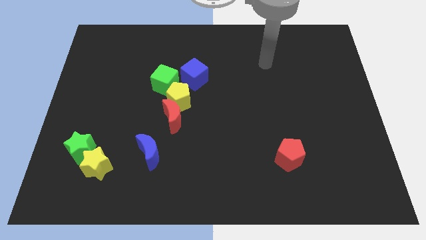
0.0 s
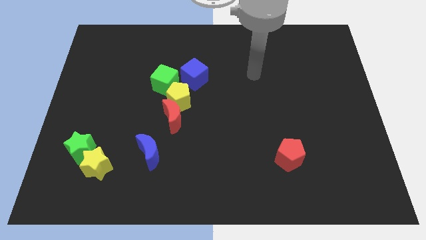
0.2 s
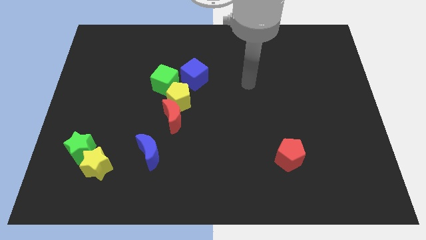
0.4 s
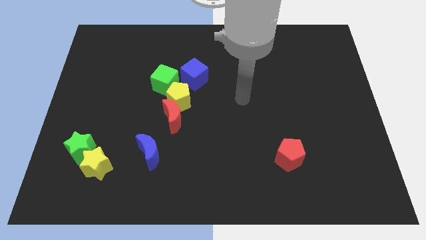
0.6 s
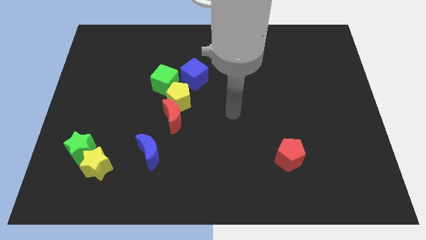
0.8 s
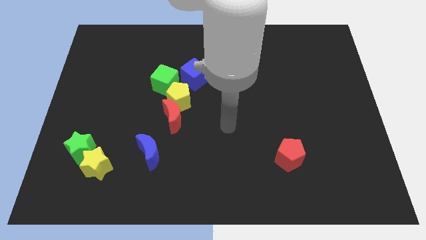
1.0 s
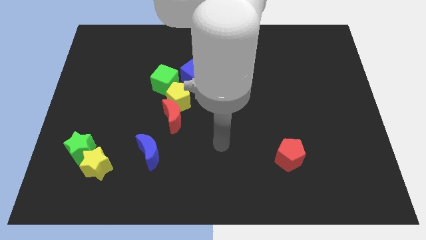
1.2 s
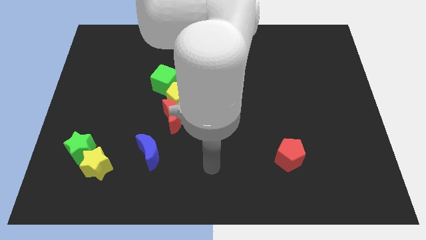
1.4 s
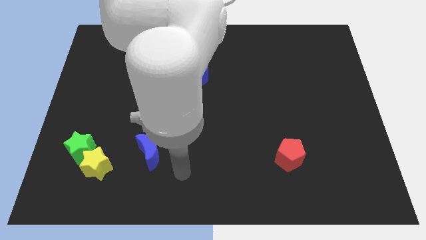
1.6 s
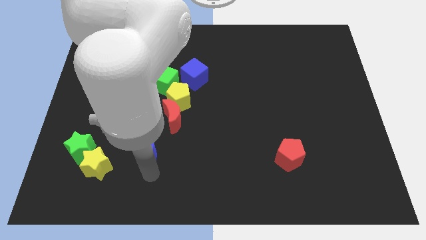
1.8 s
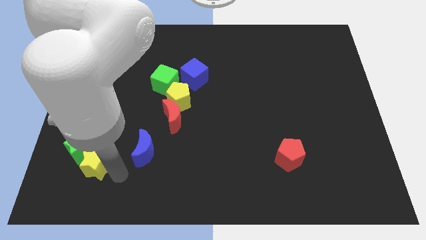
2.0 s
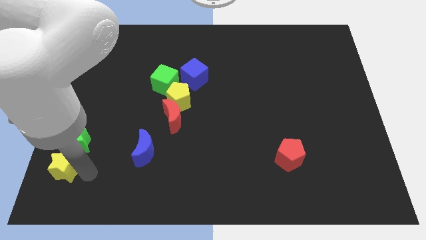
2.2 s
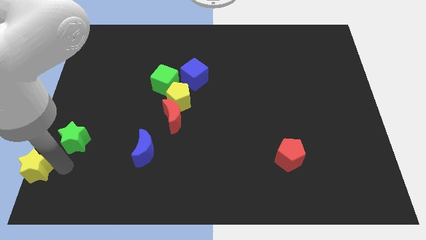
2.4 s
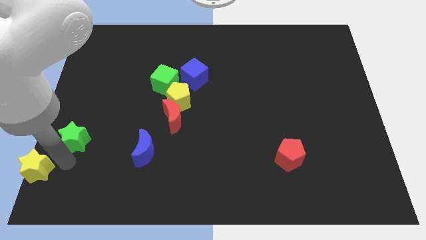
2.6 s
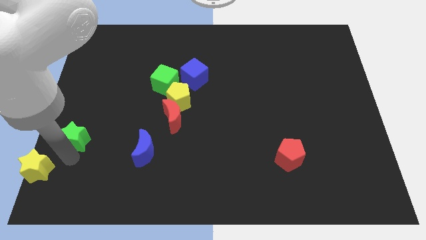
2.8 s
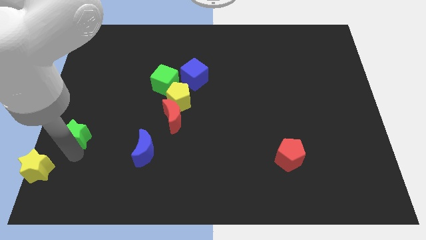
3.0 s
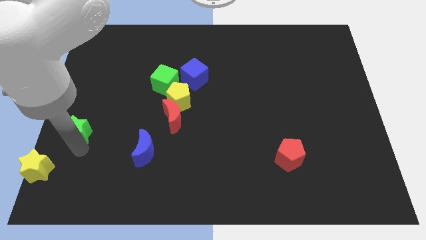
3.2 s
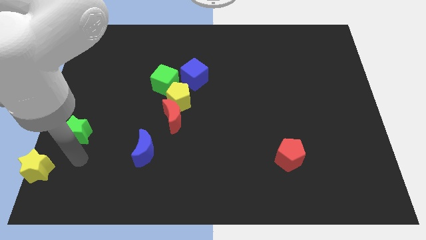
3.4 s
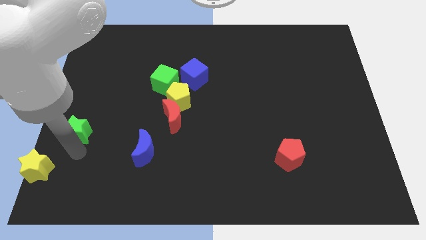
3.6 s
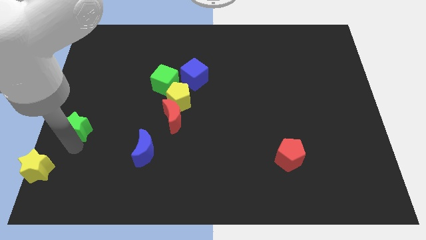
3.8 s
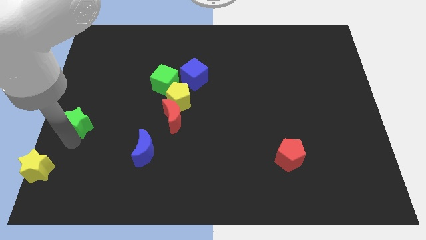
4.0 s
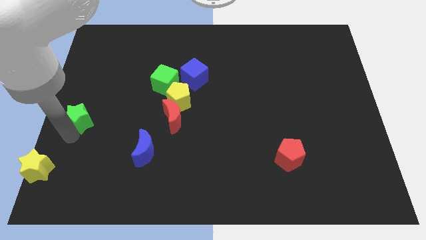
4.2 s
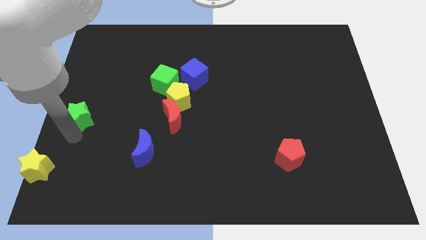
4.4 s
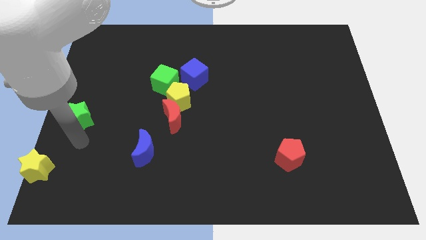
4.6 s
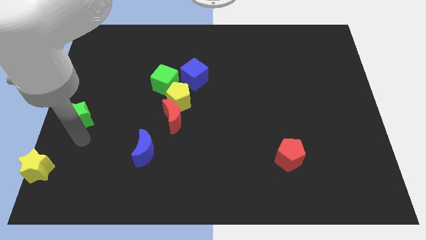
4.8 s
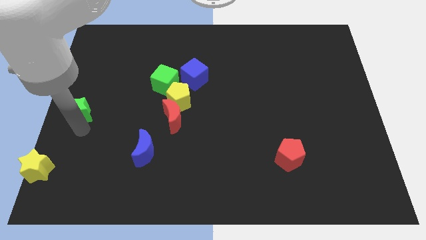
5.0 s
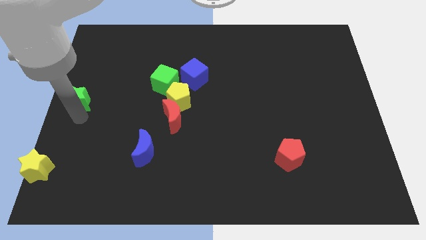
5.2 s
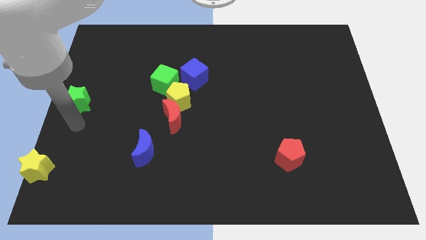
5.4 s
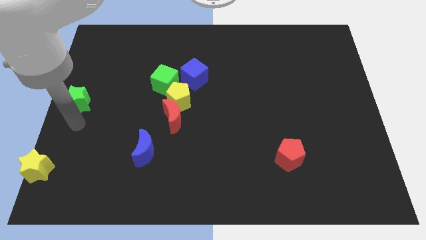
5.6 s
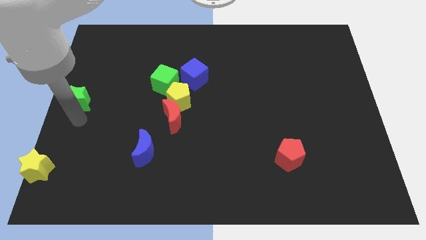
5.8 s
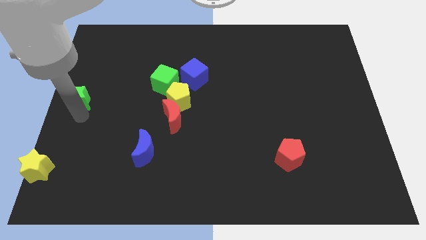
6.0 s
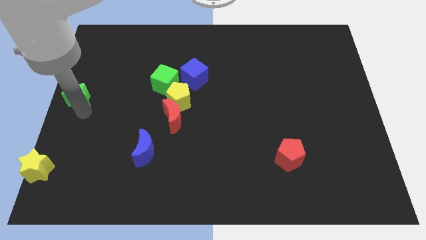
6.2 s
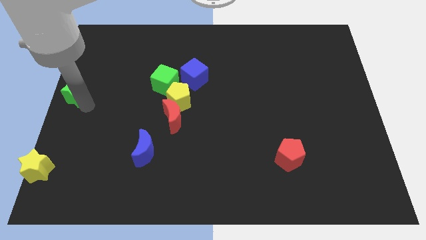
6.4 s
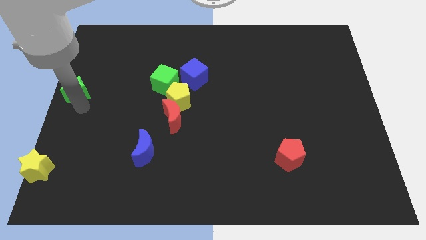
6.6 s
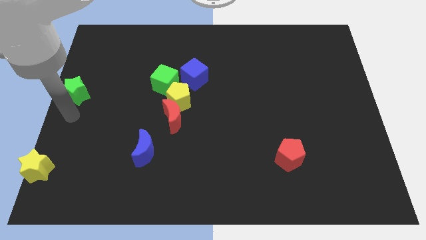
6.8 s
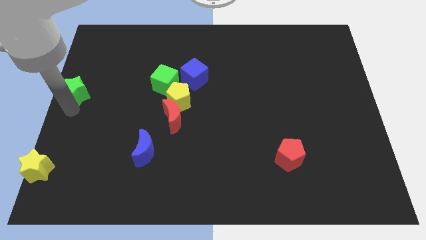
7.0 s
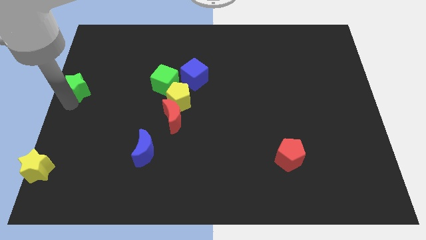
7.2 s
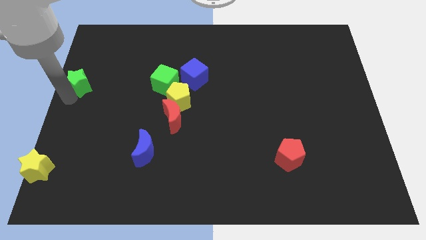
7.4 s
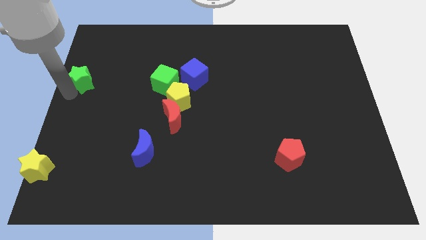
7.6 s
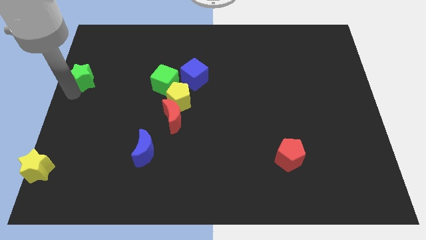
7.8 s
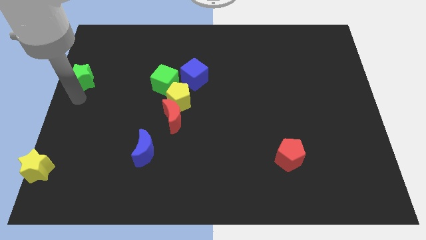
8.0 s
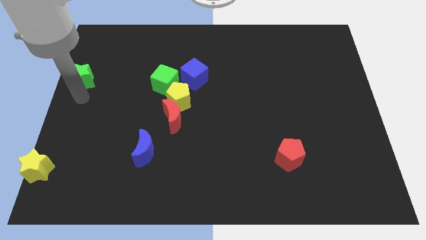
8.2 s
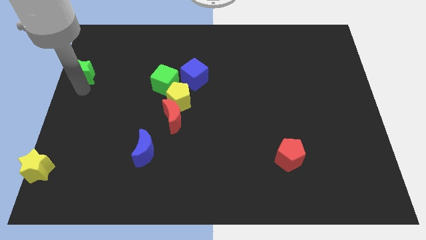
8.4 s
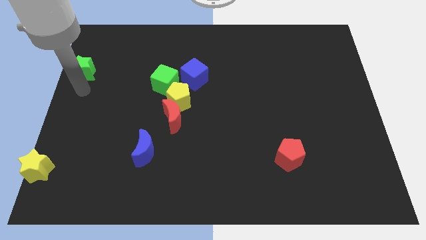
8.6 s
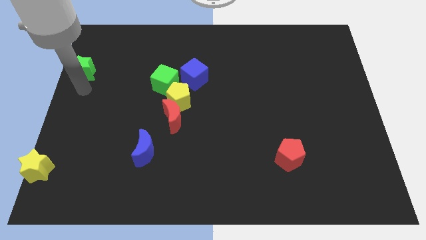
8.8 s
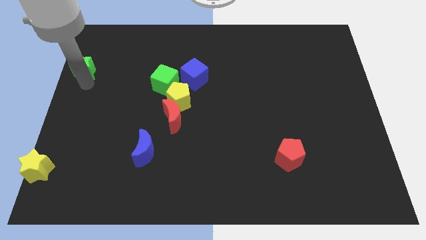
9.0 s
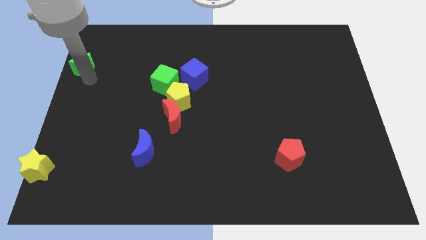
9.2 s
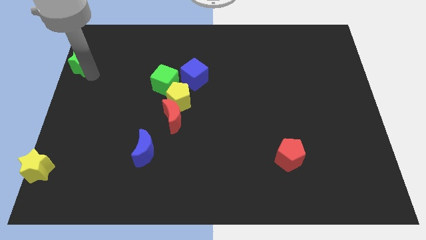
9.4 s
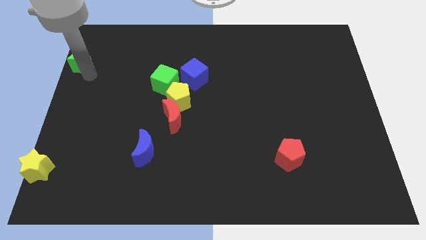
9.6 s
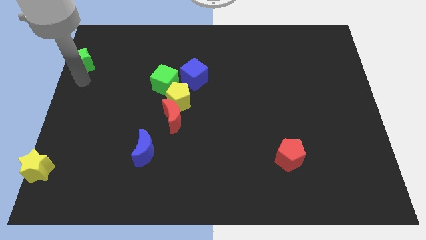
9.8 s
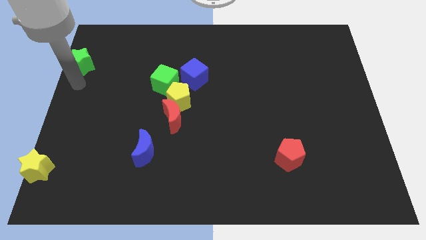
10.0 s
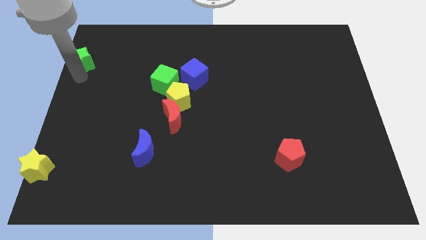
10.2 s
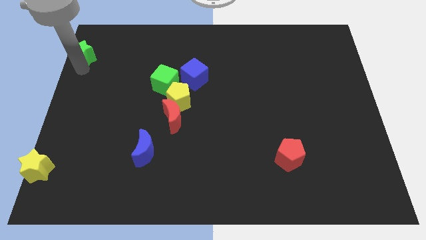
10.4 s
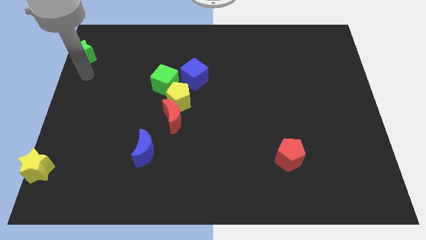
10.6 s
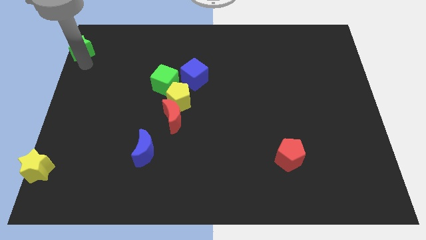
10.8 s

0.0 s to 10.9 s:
push the green star to the top left of the board
